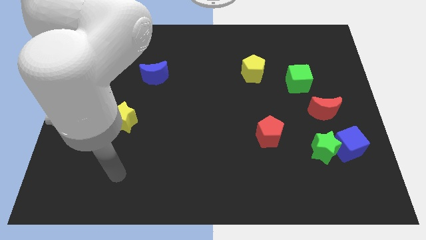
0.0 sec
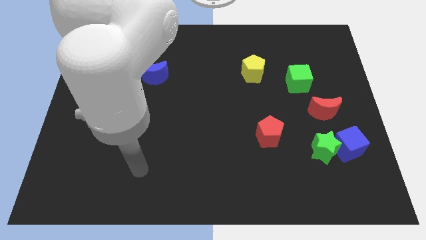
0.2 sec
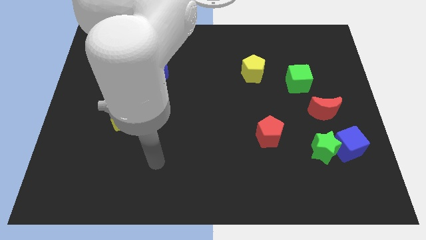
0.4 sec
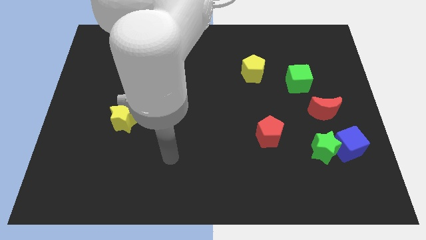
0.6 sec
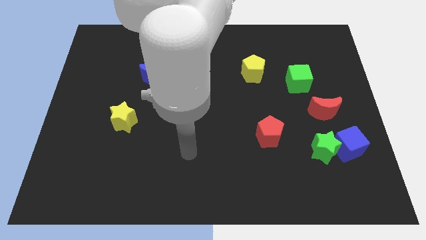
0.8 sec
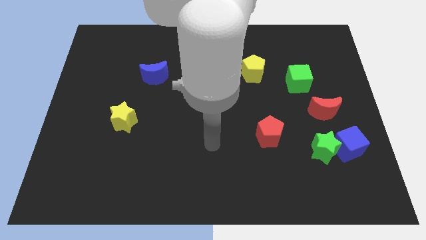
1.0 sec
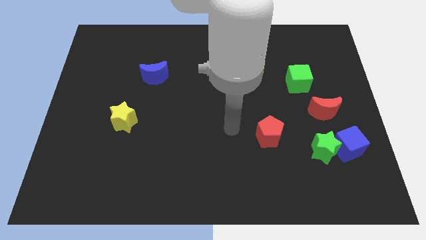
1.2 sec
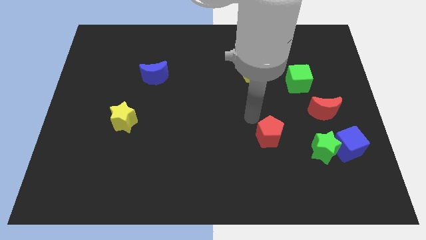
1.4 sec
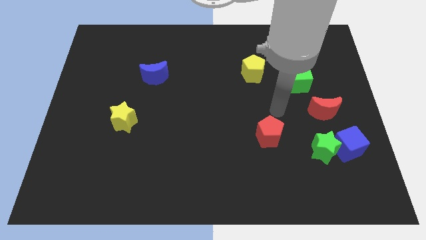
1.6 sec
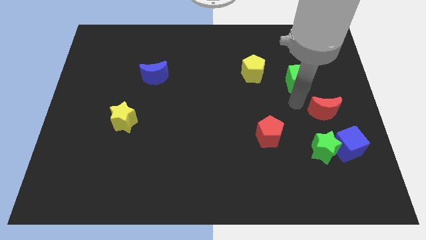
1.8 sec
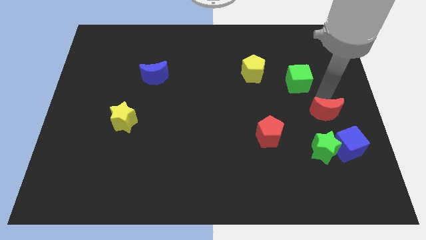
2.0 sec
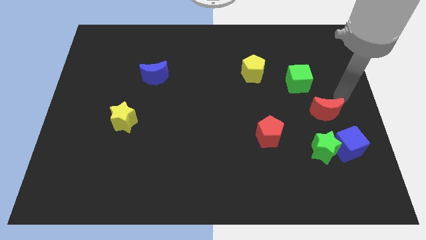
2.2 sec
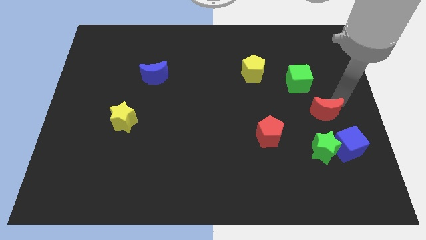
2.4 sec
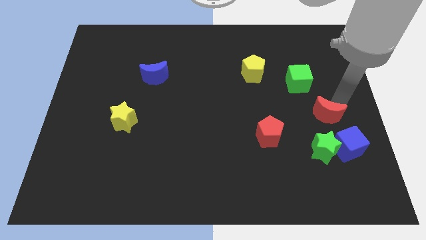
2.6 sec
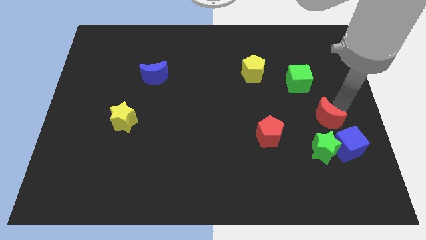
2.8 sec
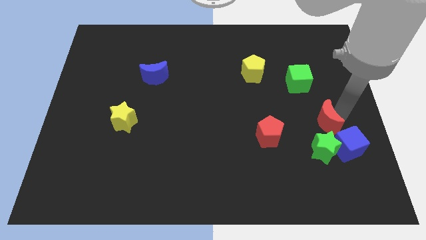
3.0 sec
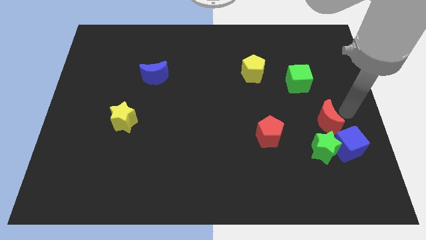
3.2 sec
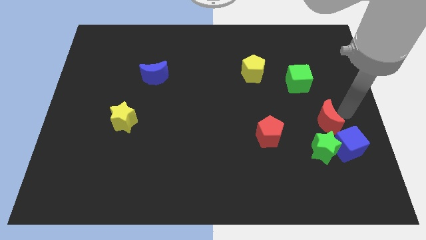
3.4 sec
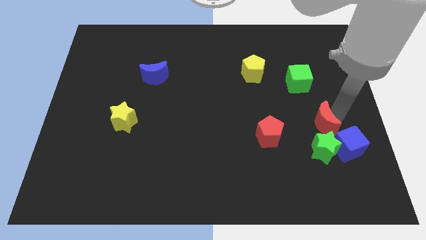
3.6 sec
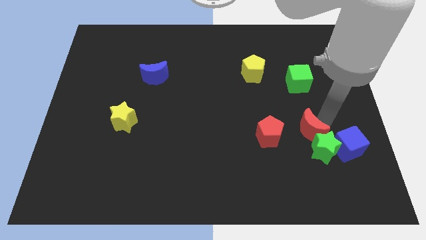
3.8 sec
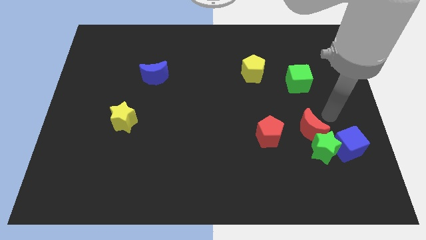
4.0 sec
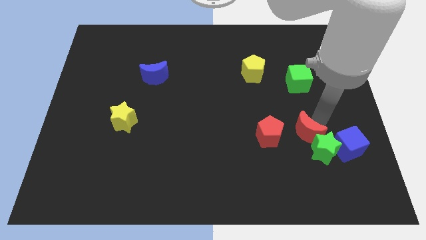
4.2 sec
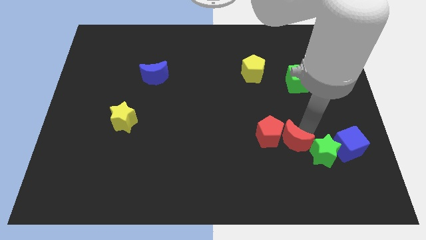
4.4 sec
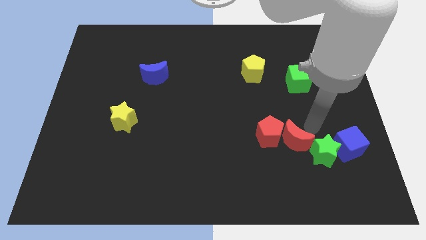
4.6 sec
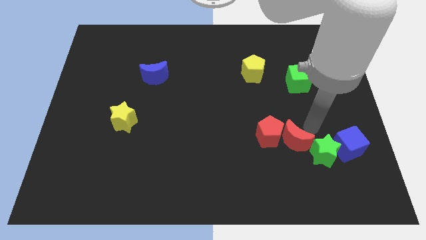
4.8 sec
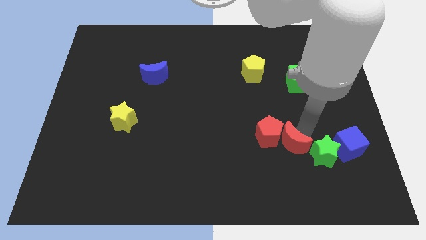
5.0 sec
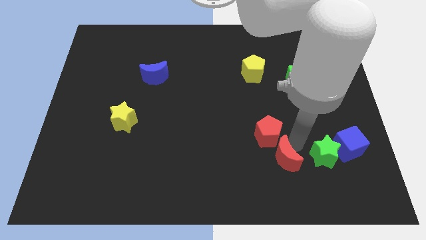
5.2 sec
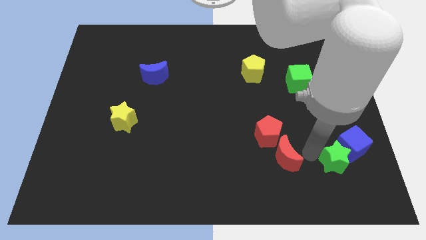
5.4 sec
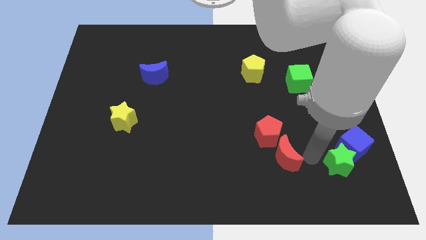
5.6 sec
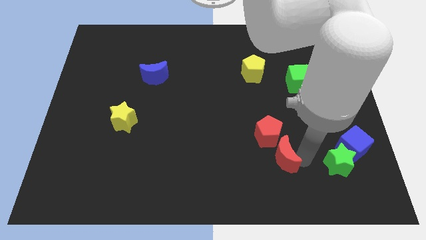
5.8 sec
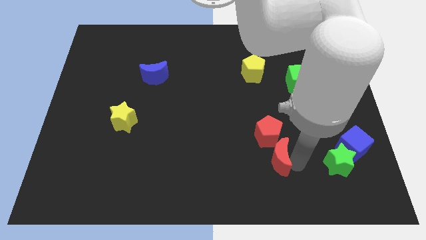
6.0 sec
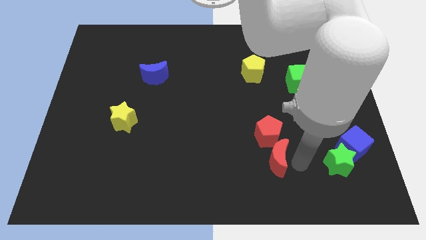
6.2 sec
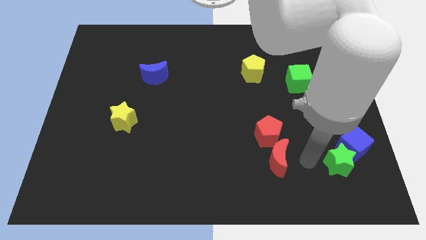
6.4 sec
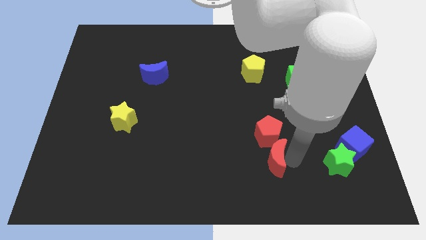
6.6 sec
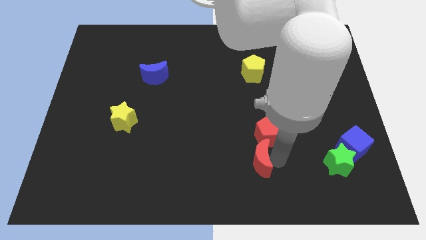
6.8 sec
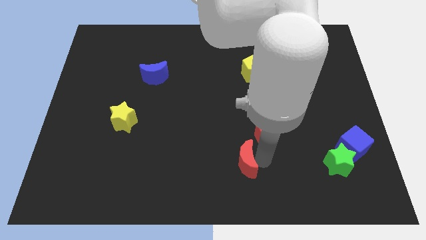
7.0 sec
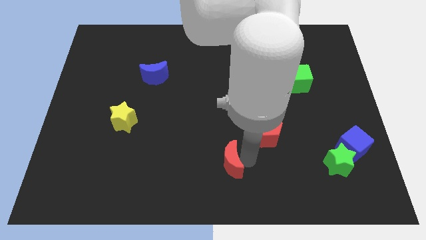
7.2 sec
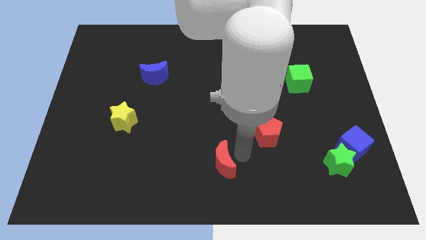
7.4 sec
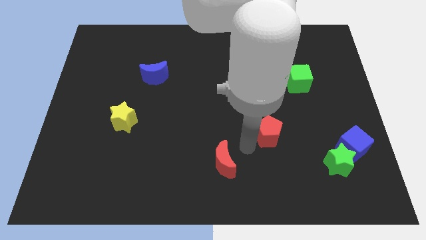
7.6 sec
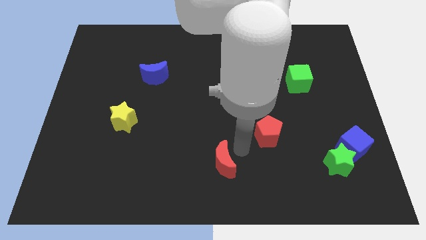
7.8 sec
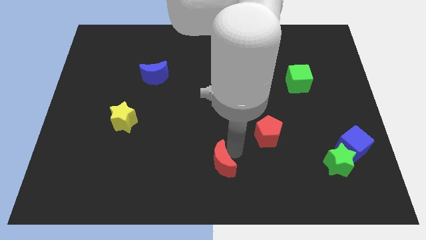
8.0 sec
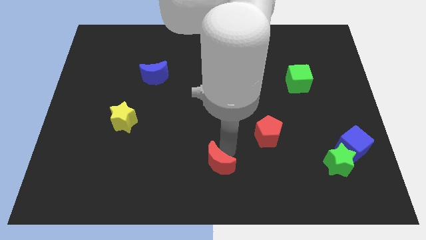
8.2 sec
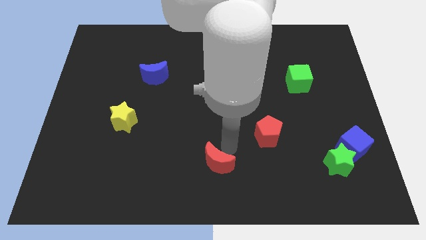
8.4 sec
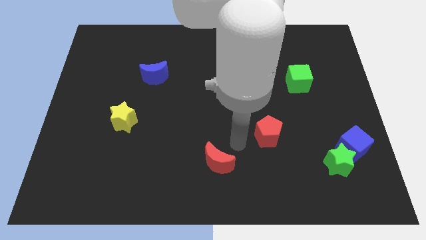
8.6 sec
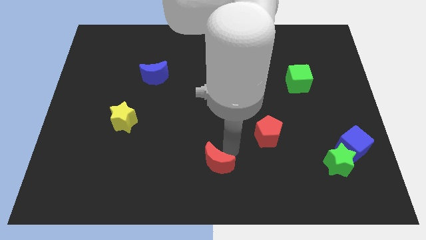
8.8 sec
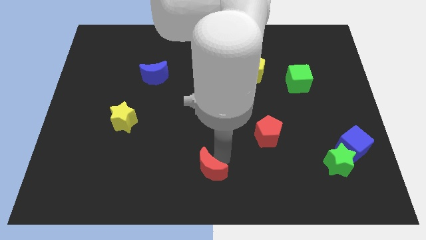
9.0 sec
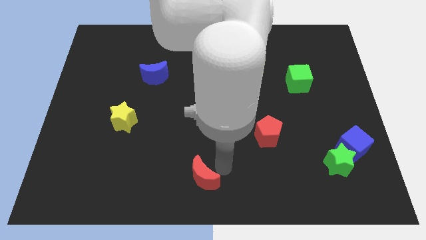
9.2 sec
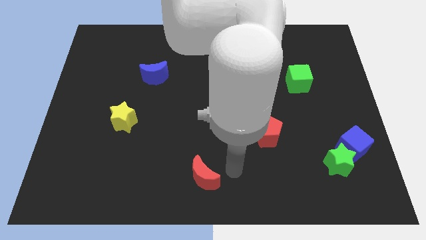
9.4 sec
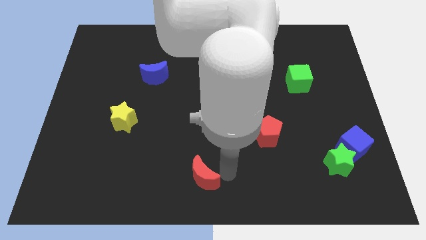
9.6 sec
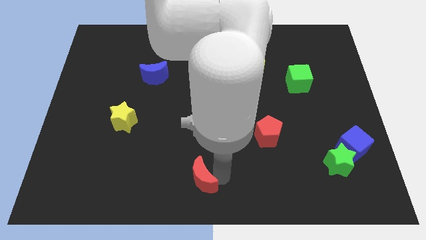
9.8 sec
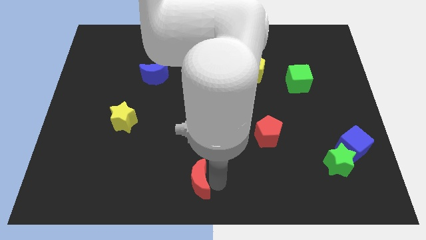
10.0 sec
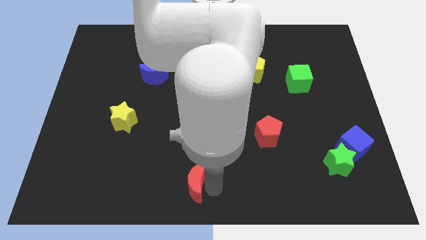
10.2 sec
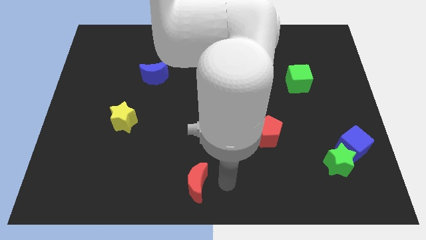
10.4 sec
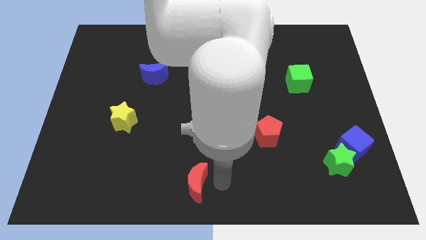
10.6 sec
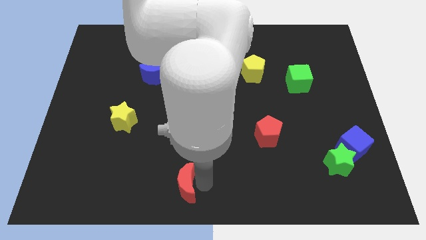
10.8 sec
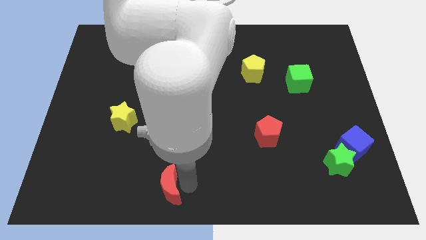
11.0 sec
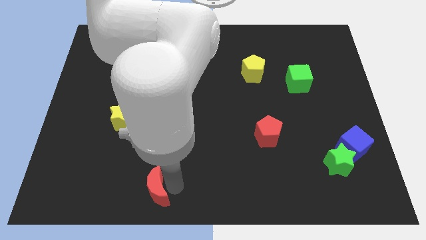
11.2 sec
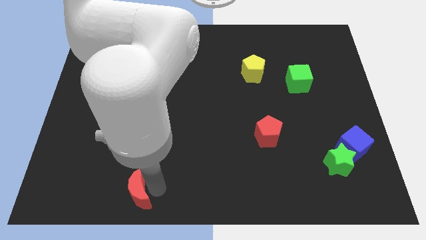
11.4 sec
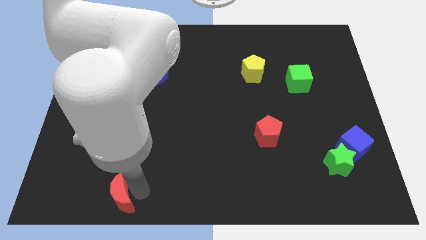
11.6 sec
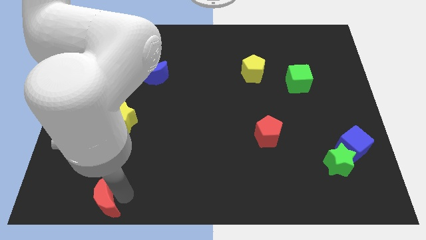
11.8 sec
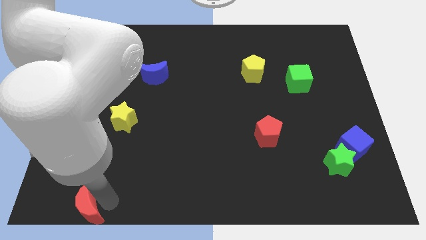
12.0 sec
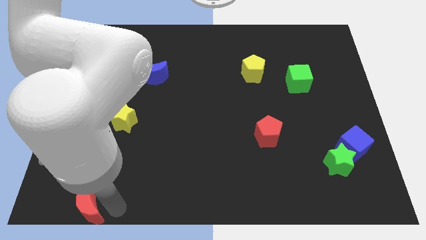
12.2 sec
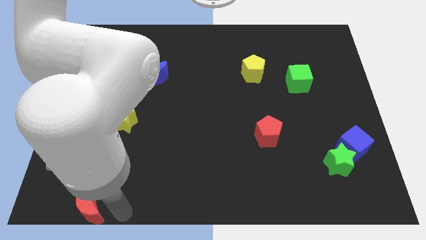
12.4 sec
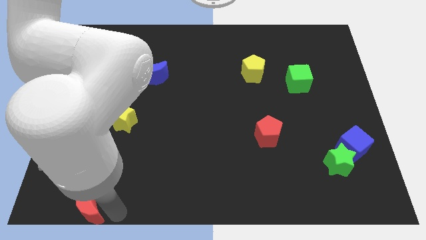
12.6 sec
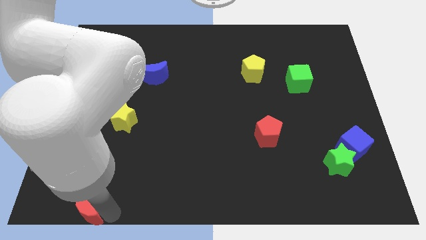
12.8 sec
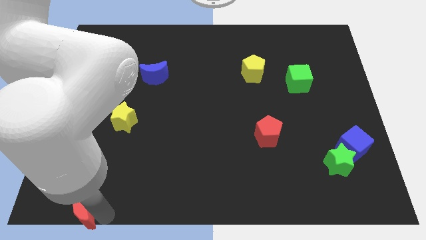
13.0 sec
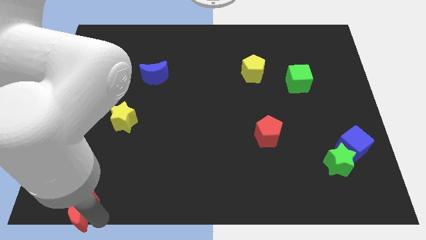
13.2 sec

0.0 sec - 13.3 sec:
put the red moon to the bottom left corner

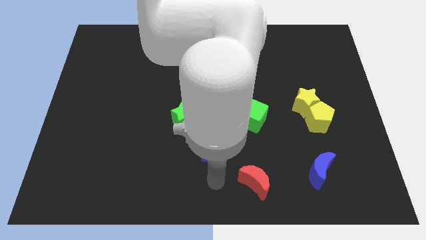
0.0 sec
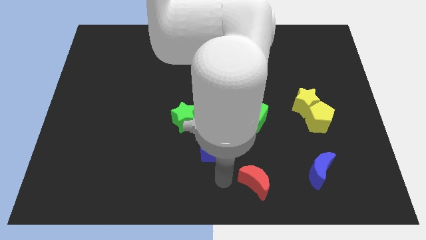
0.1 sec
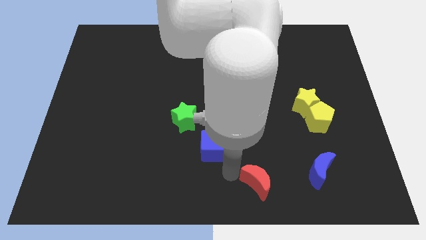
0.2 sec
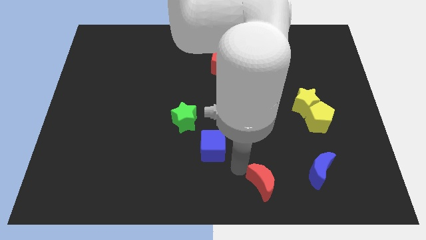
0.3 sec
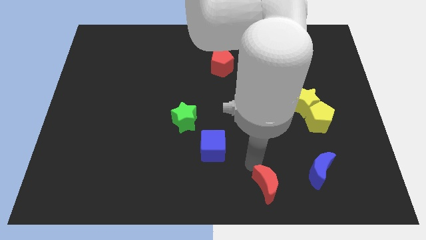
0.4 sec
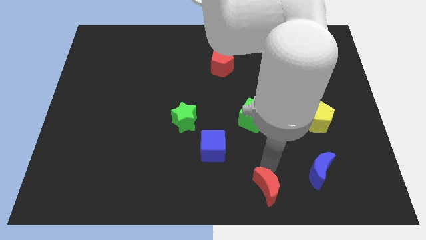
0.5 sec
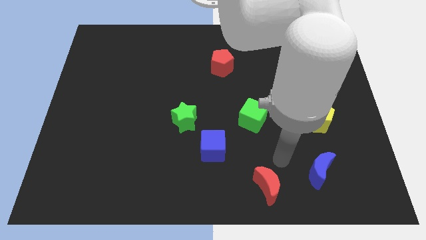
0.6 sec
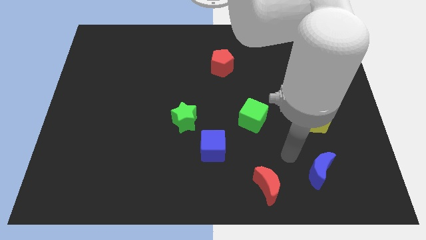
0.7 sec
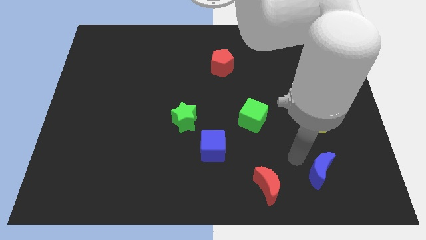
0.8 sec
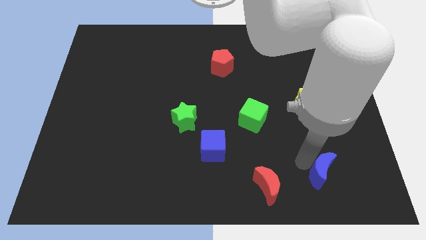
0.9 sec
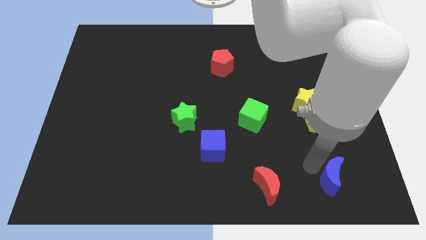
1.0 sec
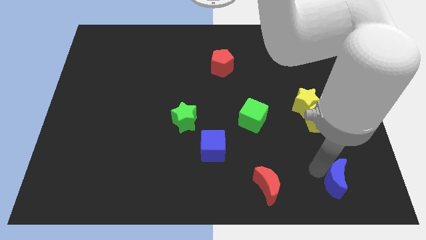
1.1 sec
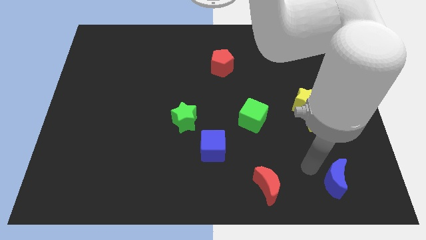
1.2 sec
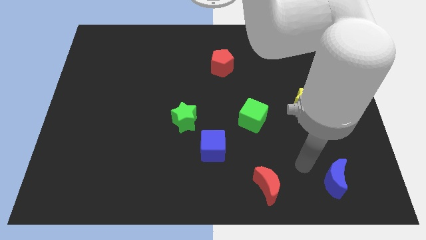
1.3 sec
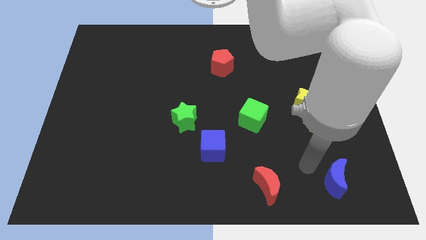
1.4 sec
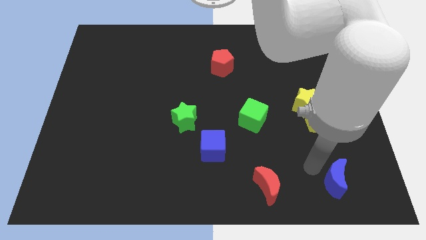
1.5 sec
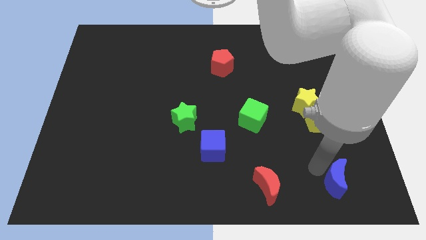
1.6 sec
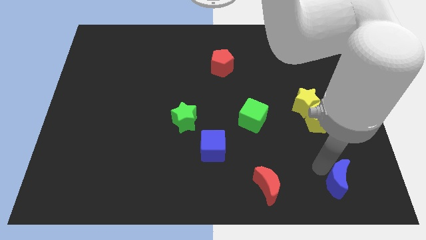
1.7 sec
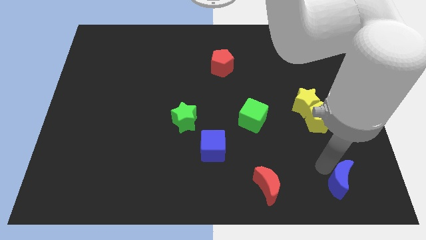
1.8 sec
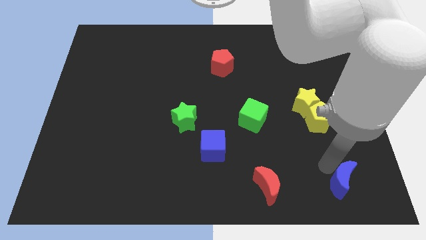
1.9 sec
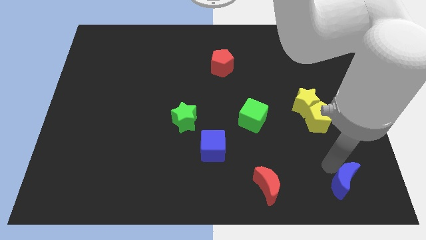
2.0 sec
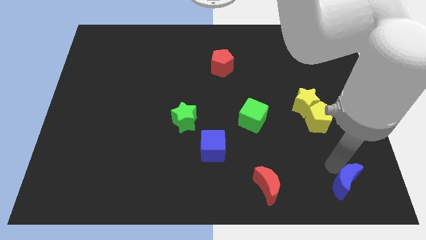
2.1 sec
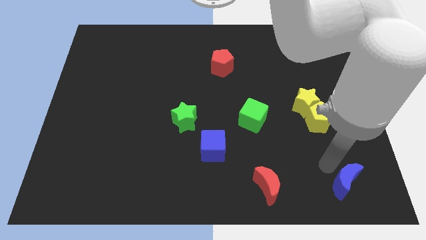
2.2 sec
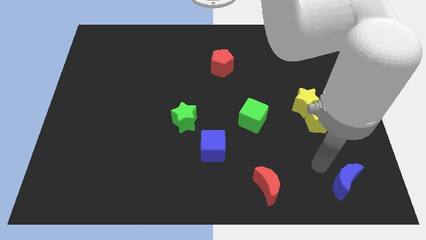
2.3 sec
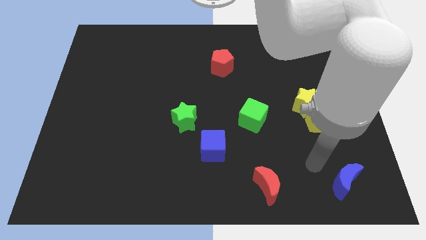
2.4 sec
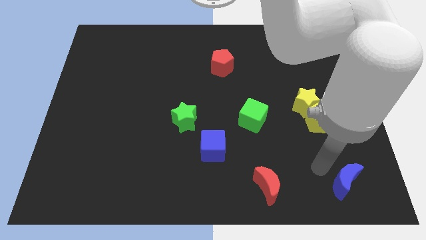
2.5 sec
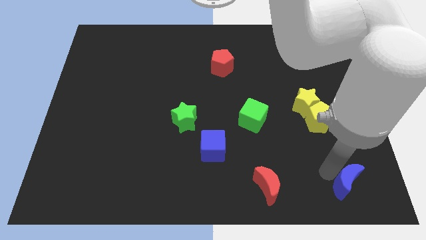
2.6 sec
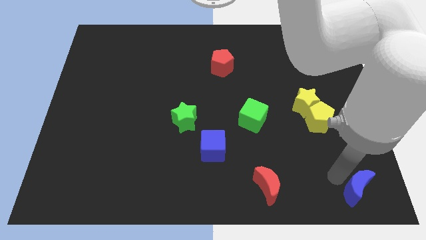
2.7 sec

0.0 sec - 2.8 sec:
move the blue moon to the lower right corner
